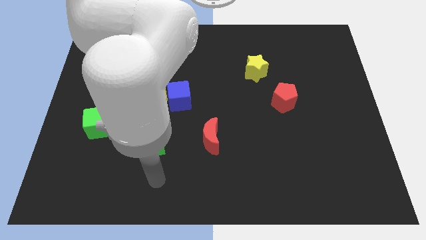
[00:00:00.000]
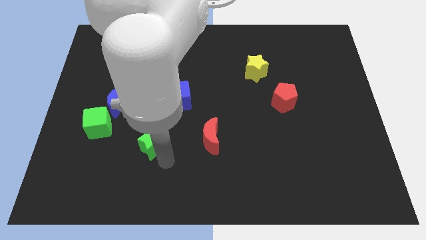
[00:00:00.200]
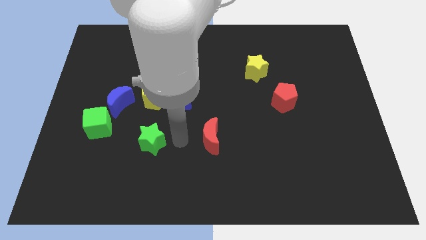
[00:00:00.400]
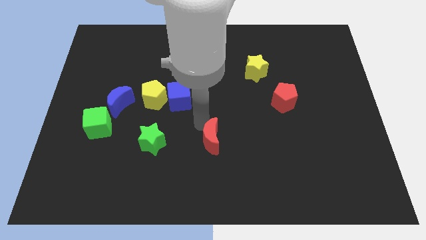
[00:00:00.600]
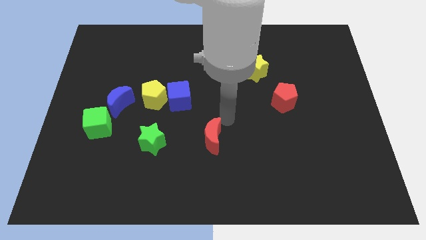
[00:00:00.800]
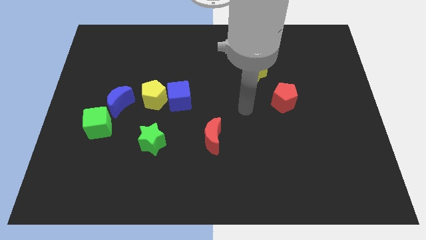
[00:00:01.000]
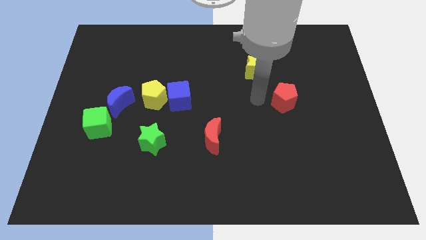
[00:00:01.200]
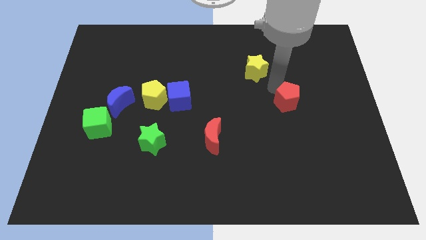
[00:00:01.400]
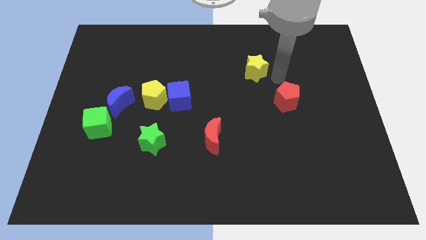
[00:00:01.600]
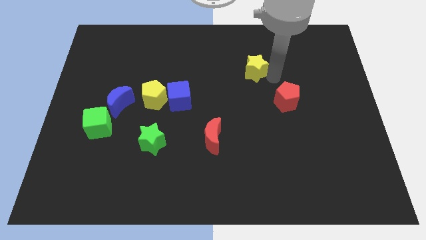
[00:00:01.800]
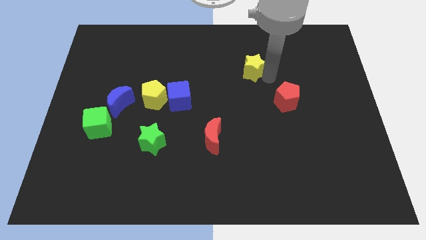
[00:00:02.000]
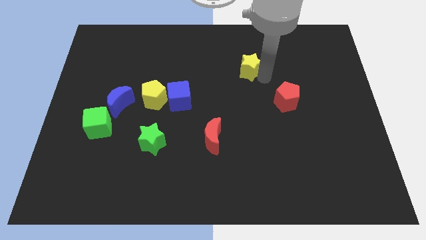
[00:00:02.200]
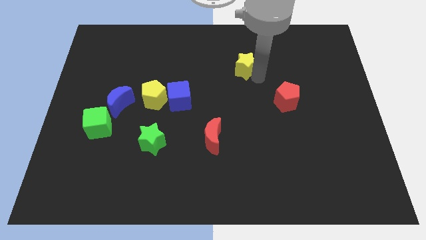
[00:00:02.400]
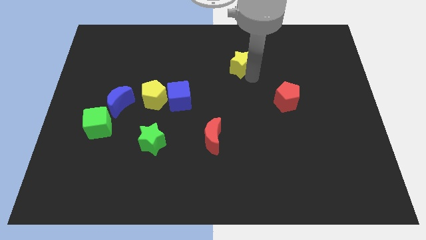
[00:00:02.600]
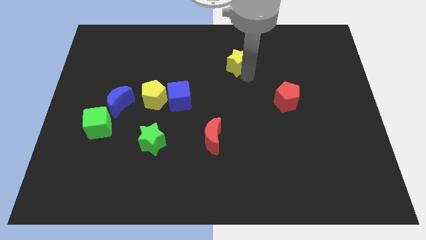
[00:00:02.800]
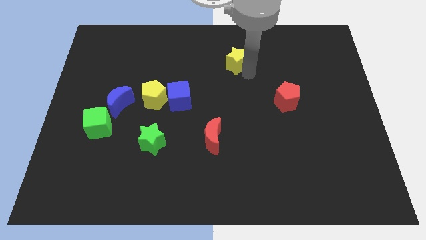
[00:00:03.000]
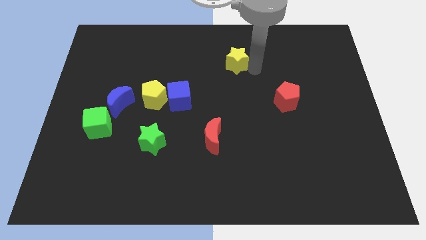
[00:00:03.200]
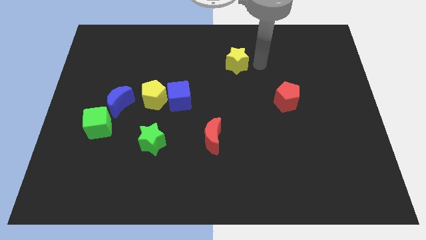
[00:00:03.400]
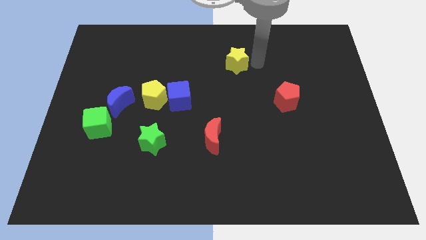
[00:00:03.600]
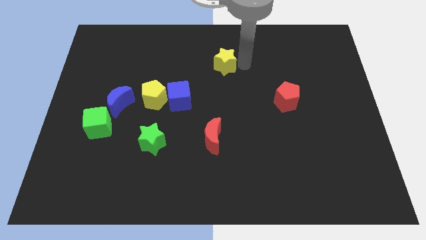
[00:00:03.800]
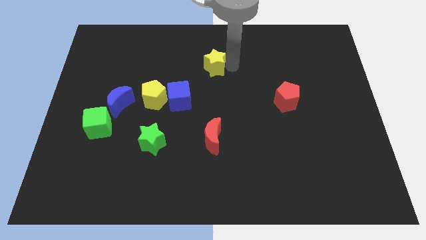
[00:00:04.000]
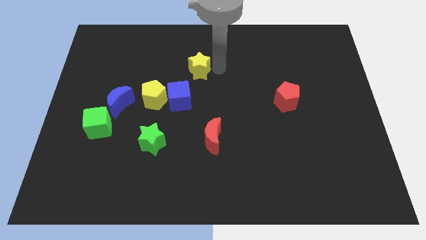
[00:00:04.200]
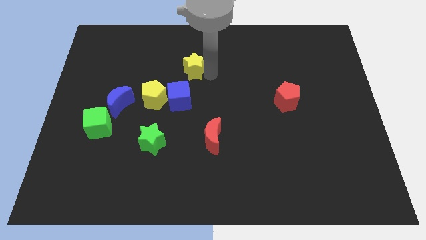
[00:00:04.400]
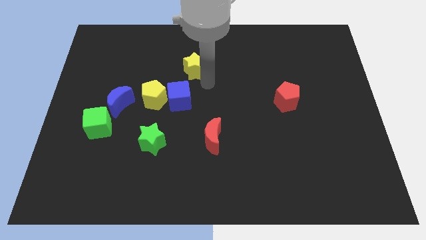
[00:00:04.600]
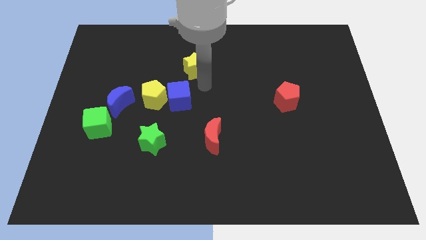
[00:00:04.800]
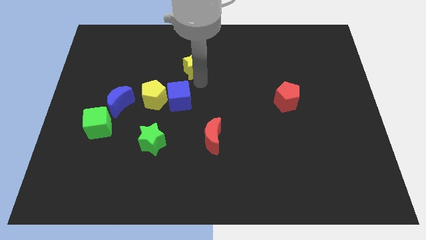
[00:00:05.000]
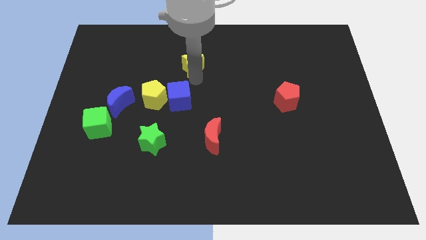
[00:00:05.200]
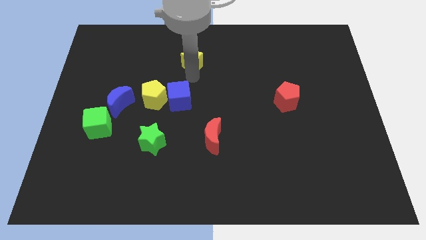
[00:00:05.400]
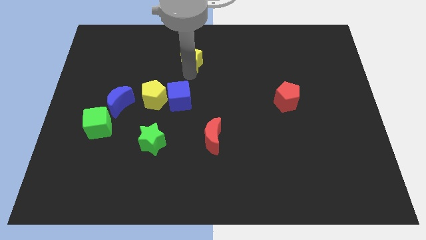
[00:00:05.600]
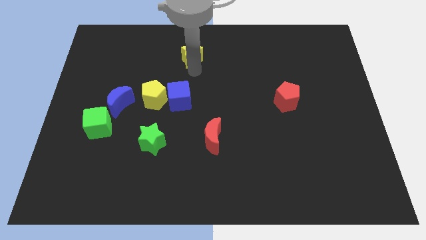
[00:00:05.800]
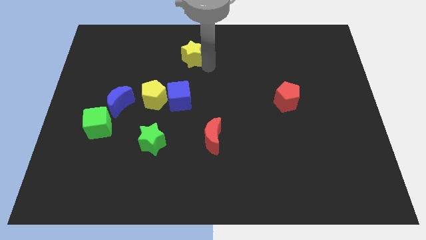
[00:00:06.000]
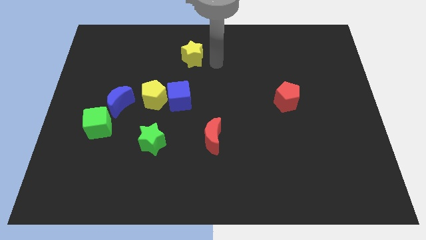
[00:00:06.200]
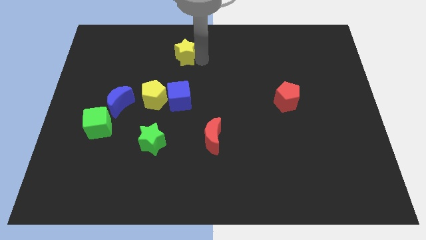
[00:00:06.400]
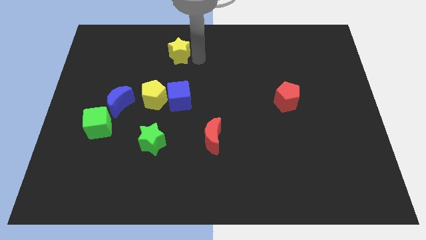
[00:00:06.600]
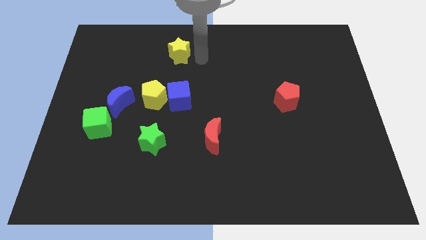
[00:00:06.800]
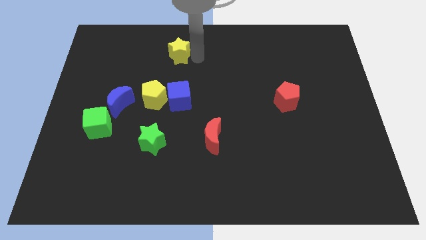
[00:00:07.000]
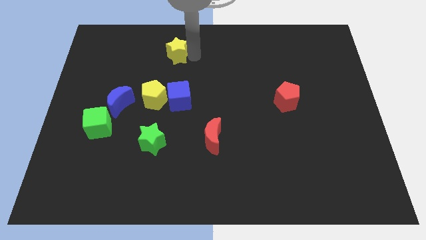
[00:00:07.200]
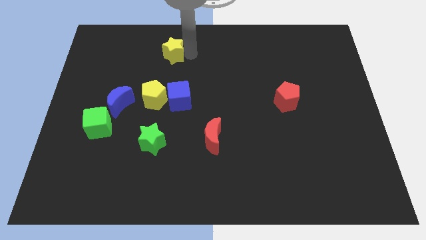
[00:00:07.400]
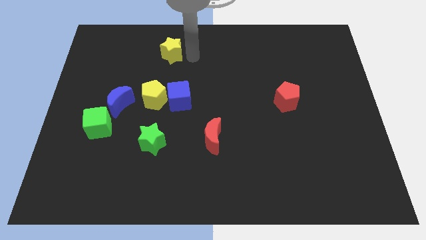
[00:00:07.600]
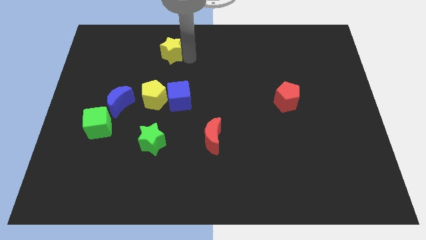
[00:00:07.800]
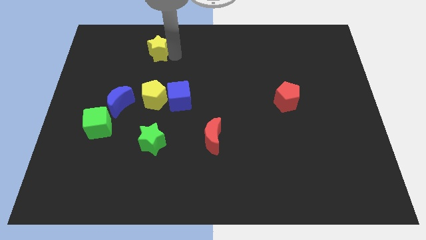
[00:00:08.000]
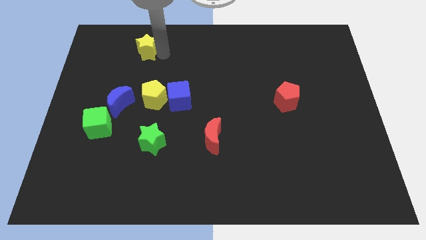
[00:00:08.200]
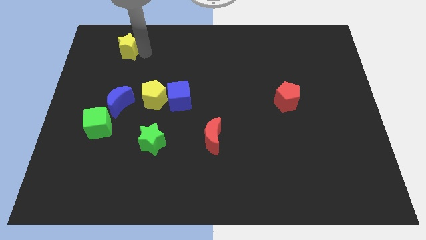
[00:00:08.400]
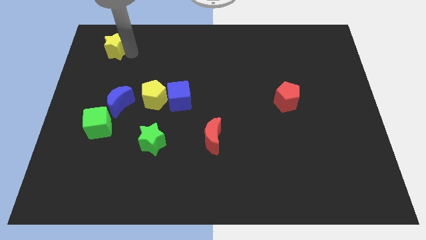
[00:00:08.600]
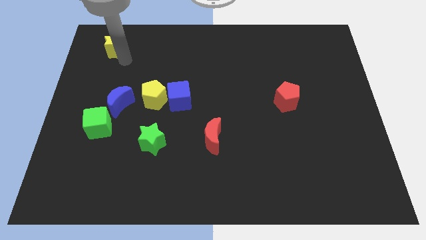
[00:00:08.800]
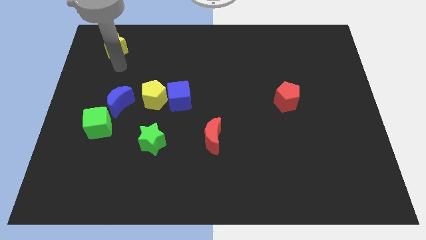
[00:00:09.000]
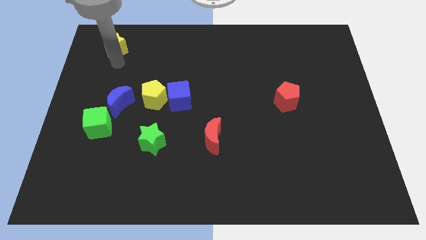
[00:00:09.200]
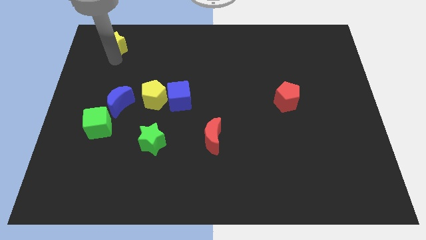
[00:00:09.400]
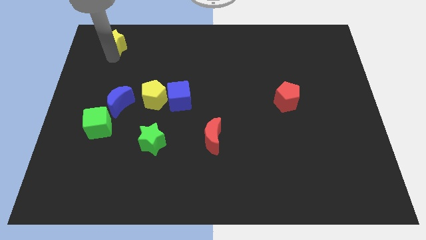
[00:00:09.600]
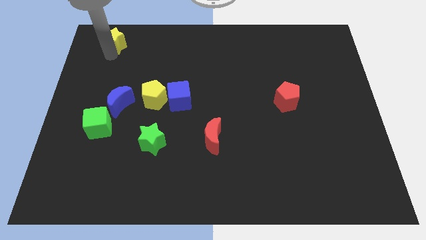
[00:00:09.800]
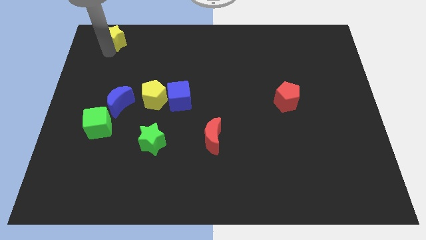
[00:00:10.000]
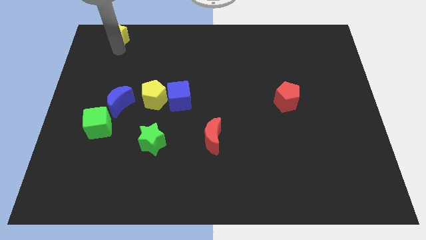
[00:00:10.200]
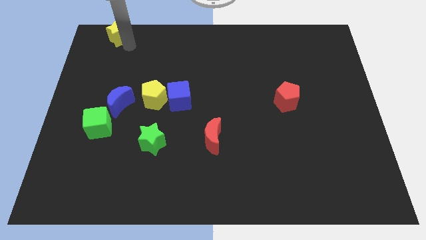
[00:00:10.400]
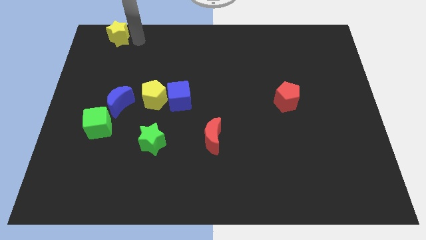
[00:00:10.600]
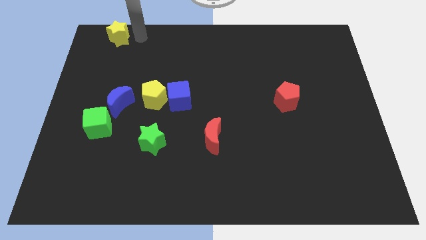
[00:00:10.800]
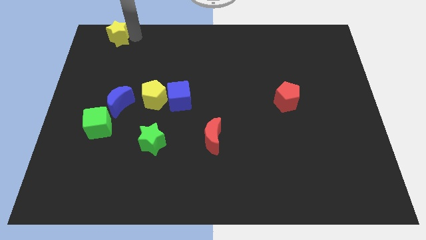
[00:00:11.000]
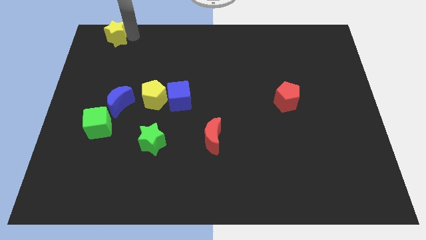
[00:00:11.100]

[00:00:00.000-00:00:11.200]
slide the yellow star to the upper left corner

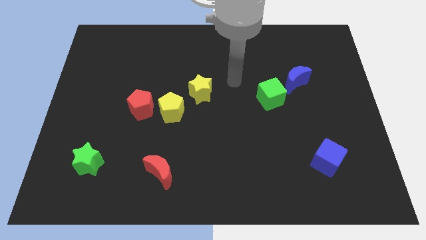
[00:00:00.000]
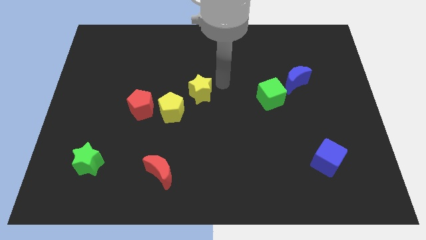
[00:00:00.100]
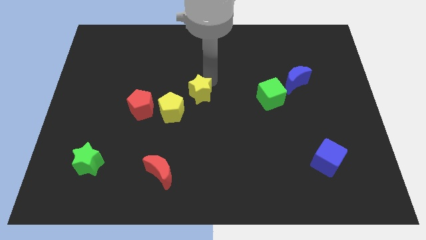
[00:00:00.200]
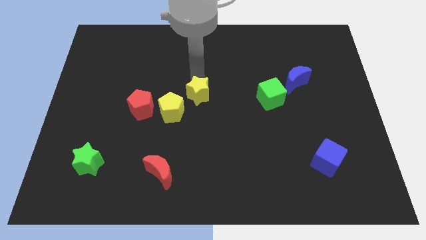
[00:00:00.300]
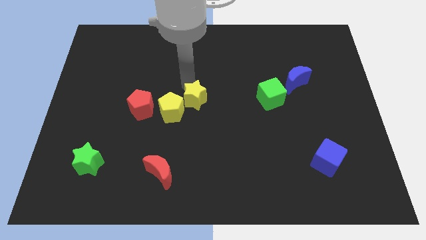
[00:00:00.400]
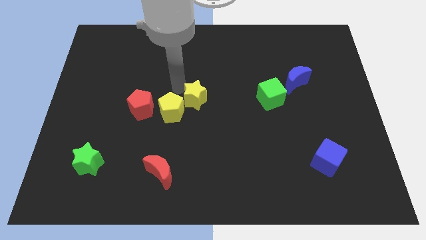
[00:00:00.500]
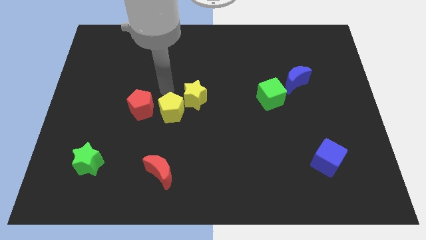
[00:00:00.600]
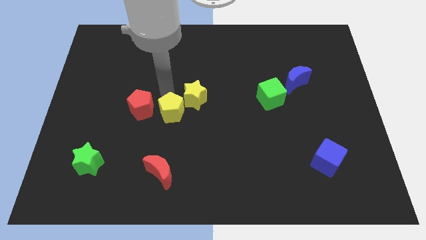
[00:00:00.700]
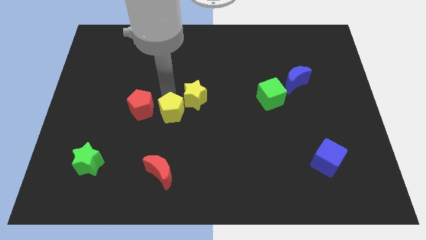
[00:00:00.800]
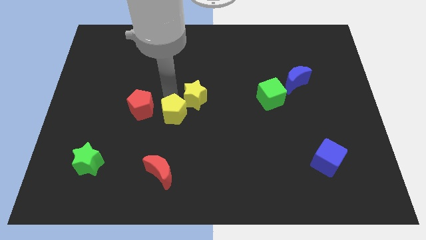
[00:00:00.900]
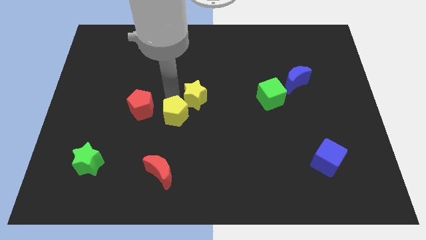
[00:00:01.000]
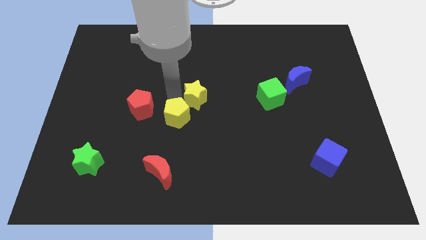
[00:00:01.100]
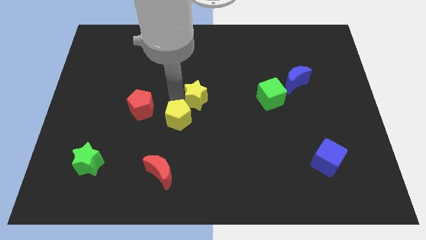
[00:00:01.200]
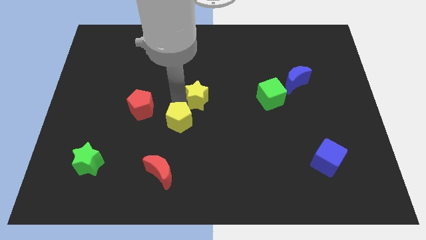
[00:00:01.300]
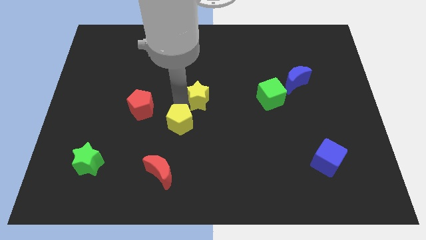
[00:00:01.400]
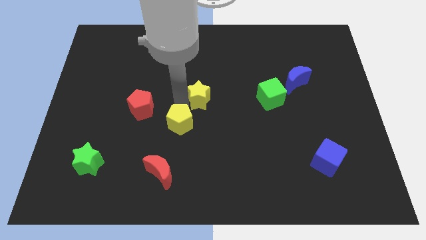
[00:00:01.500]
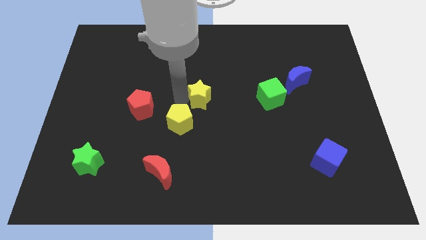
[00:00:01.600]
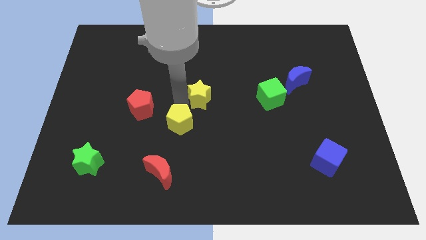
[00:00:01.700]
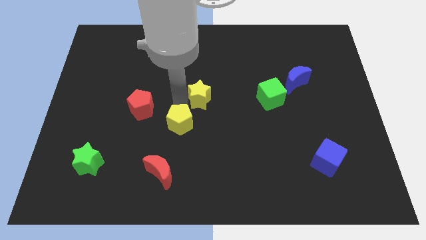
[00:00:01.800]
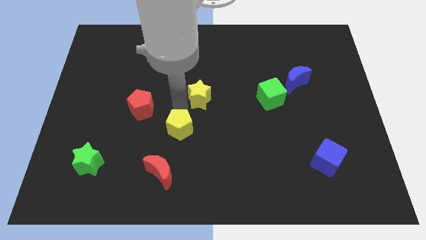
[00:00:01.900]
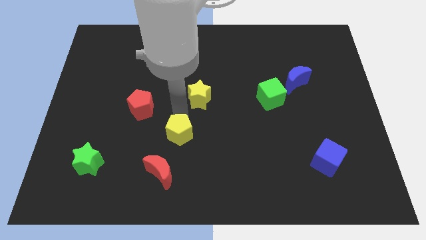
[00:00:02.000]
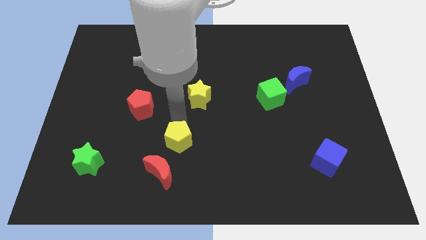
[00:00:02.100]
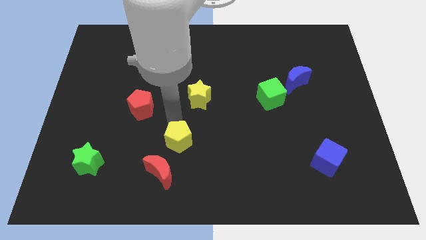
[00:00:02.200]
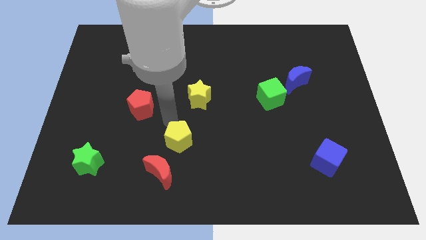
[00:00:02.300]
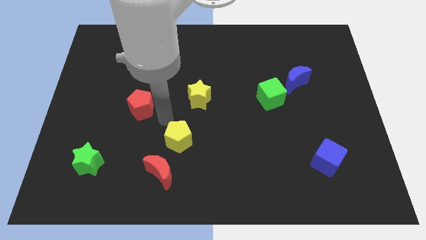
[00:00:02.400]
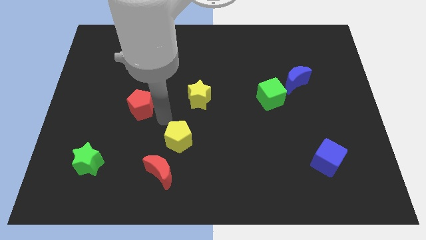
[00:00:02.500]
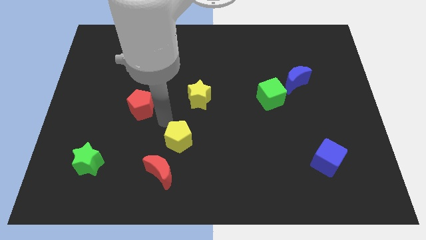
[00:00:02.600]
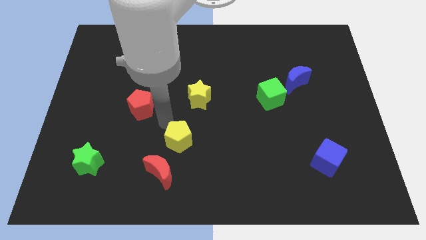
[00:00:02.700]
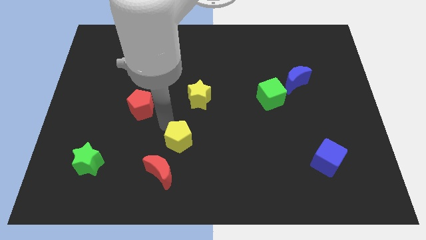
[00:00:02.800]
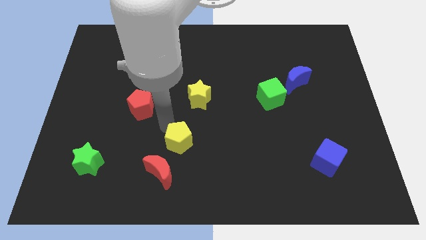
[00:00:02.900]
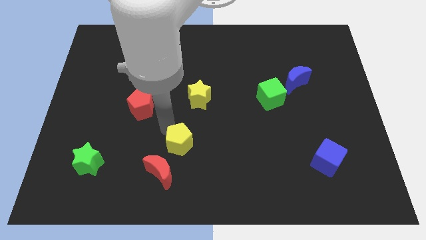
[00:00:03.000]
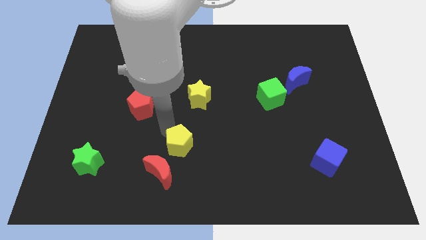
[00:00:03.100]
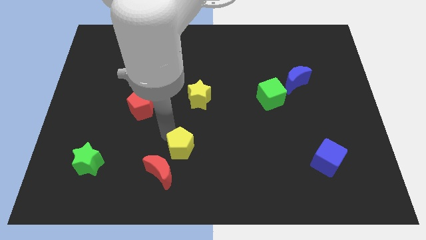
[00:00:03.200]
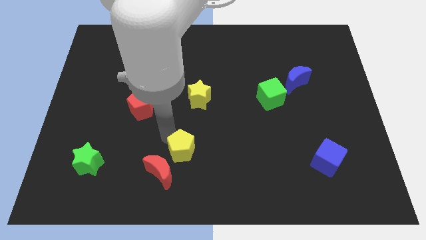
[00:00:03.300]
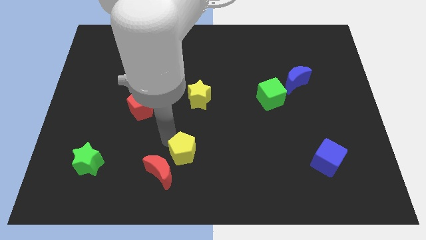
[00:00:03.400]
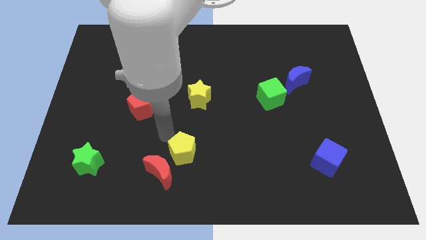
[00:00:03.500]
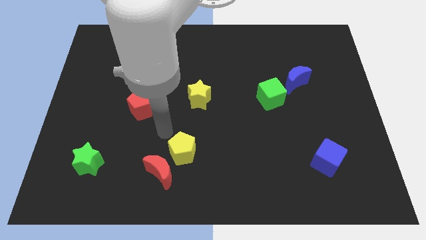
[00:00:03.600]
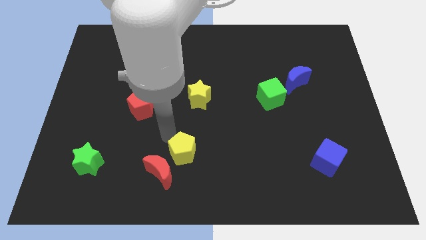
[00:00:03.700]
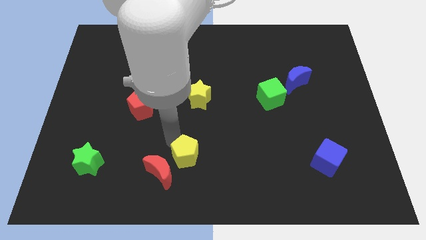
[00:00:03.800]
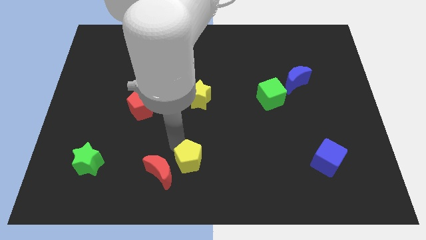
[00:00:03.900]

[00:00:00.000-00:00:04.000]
put the yellow pentagon to the bottom side
